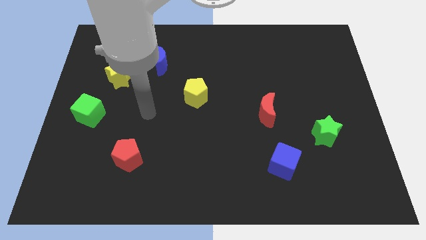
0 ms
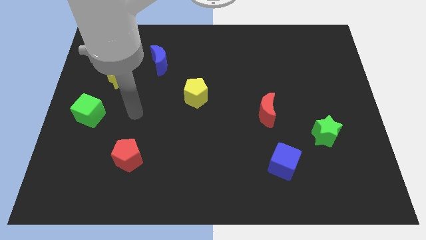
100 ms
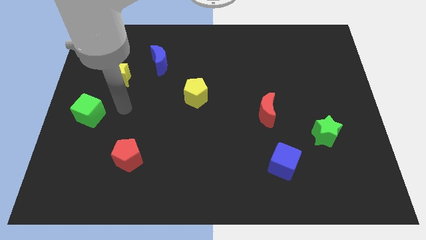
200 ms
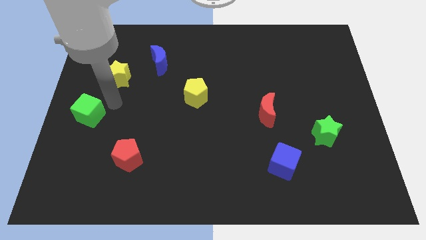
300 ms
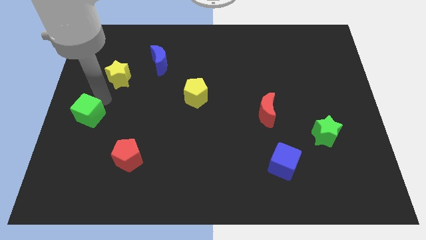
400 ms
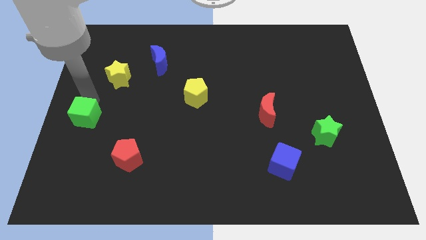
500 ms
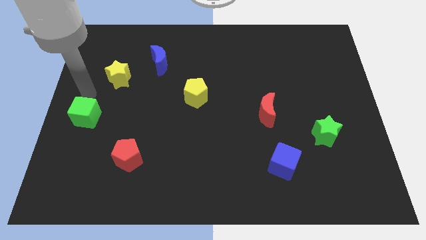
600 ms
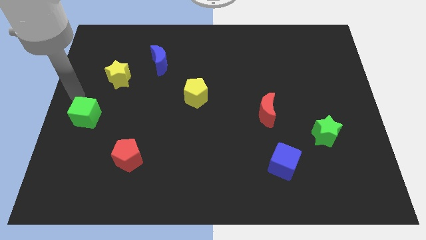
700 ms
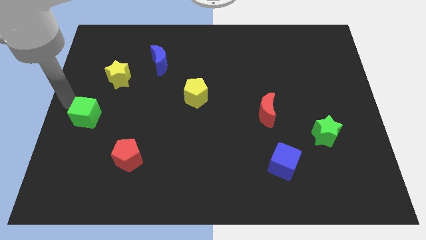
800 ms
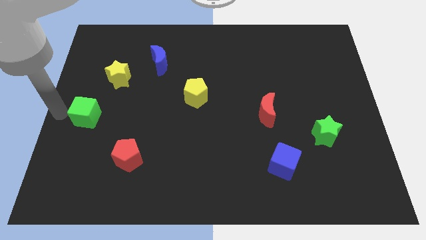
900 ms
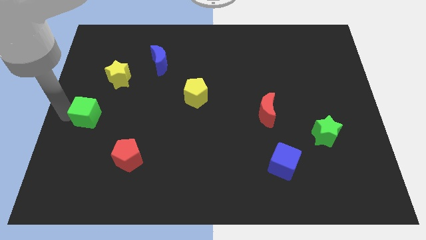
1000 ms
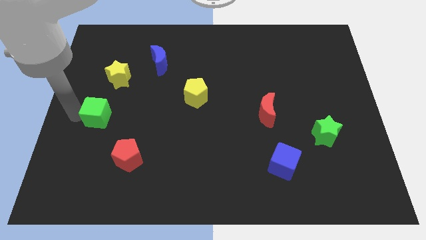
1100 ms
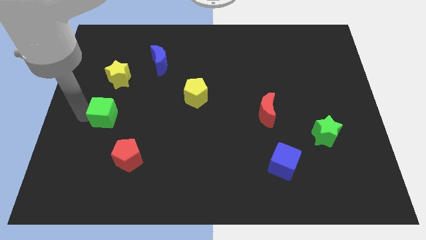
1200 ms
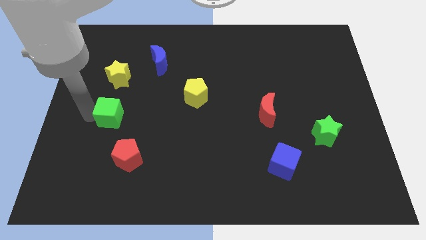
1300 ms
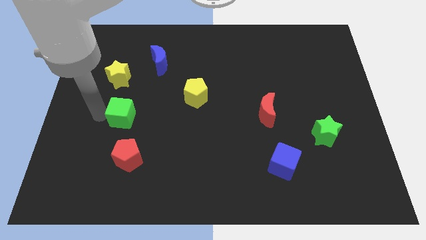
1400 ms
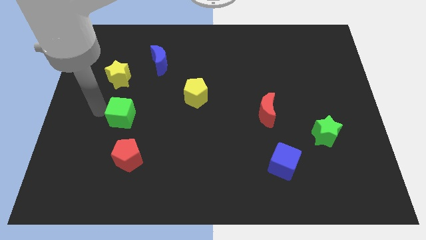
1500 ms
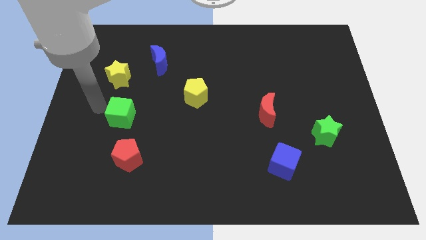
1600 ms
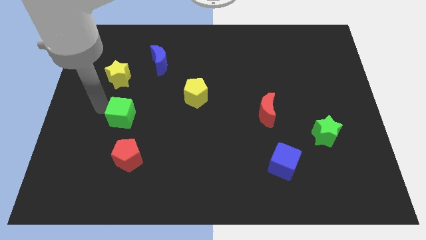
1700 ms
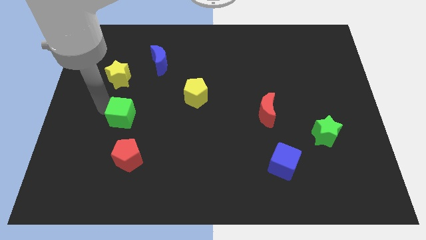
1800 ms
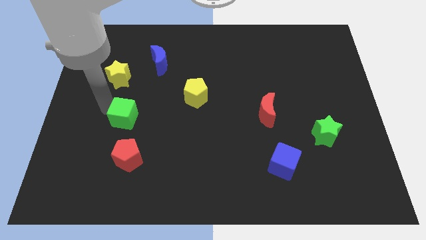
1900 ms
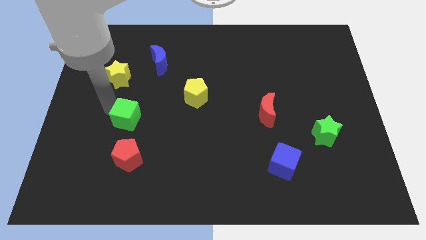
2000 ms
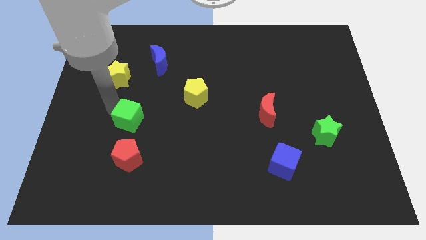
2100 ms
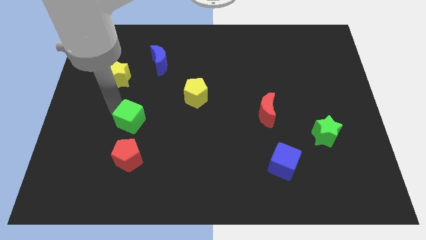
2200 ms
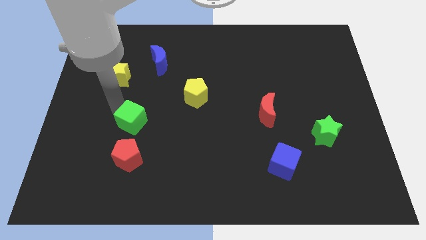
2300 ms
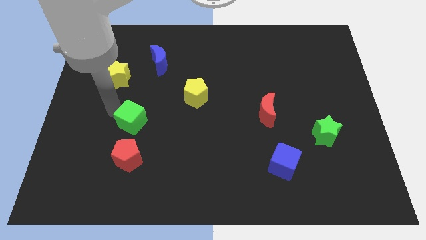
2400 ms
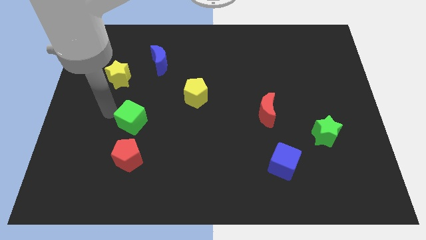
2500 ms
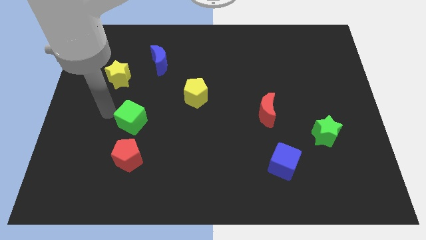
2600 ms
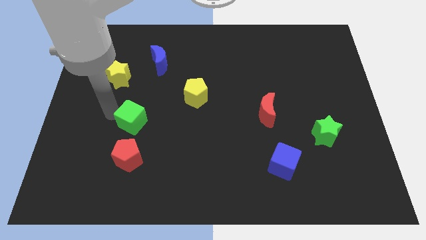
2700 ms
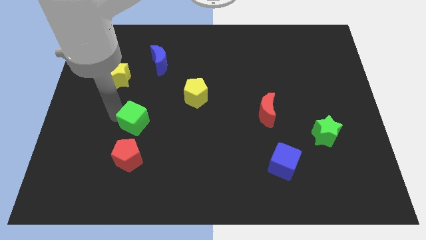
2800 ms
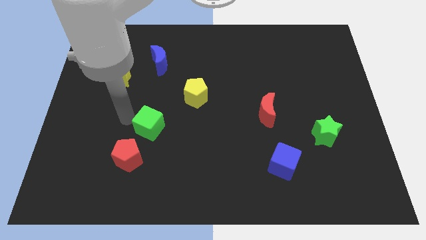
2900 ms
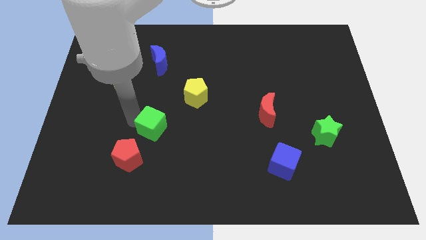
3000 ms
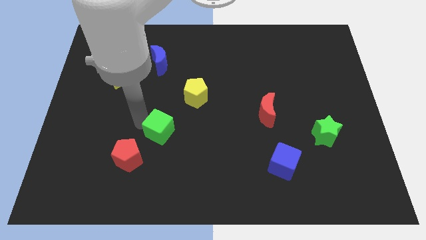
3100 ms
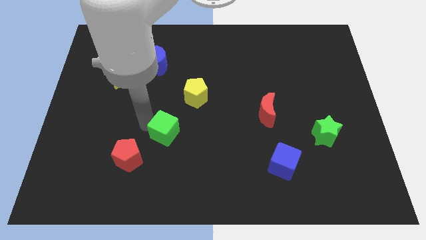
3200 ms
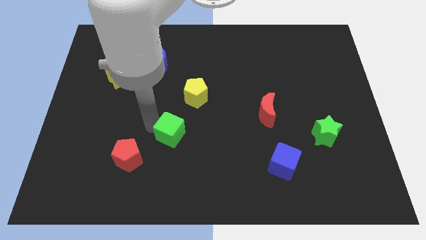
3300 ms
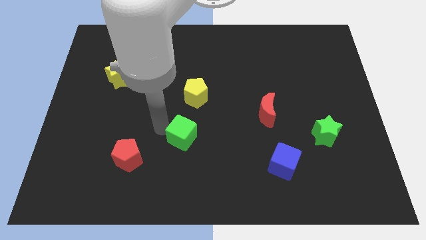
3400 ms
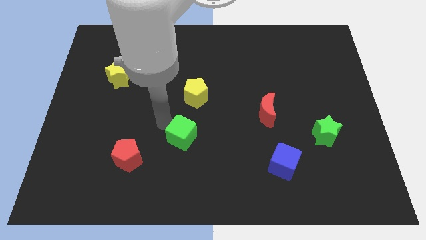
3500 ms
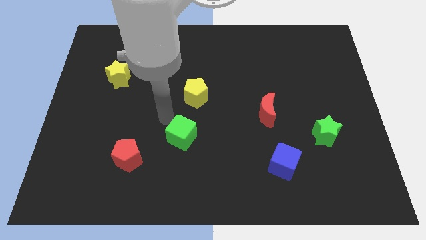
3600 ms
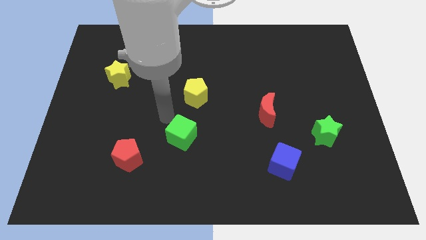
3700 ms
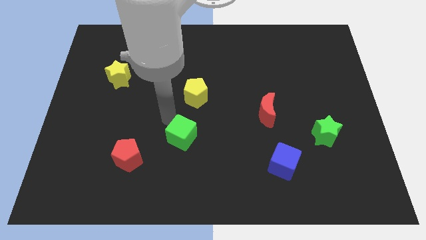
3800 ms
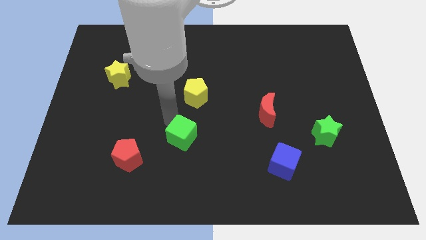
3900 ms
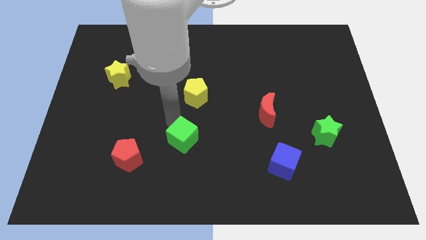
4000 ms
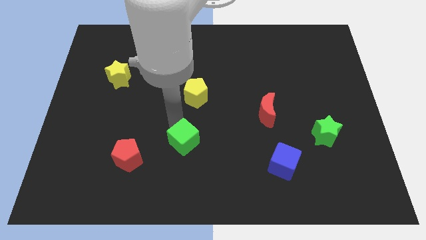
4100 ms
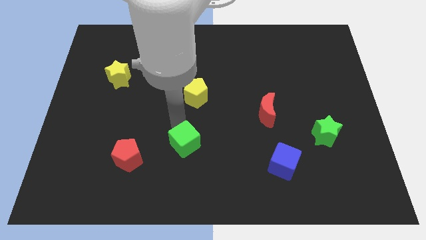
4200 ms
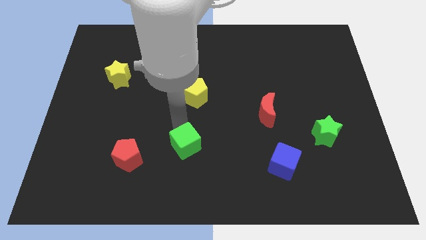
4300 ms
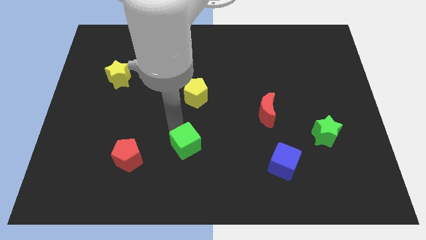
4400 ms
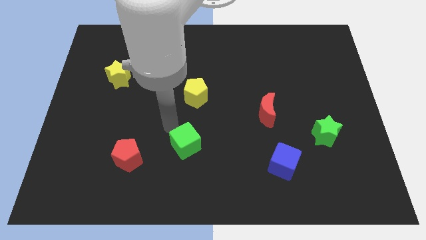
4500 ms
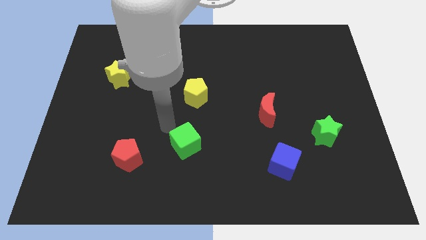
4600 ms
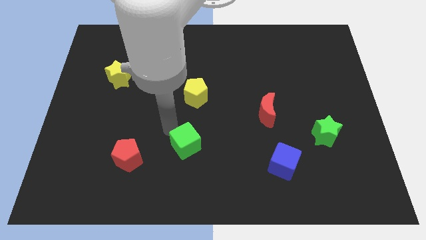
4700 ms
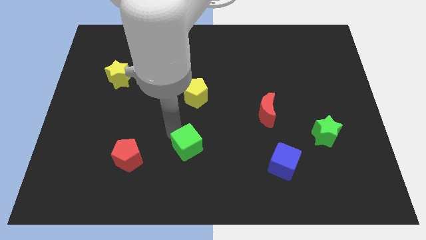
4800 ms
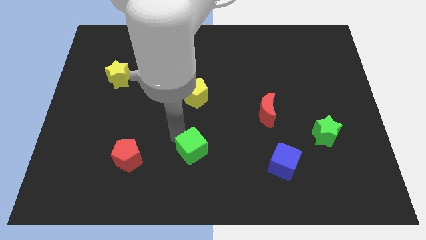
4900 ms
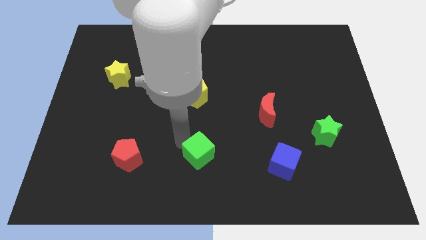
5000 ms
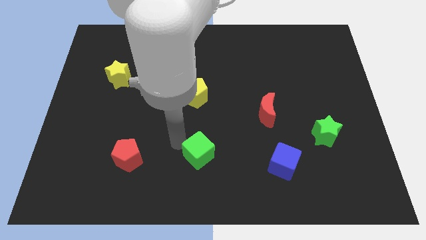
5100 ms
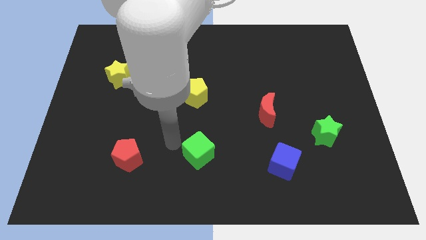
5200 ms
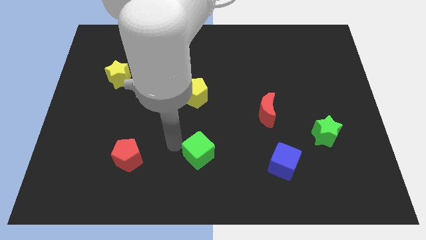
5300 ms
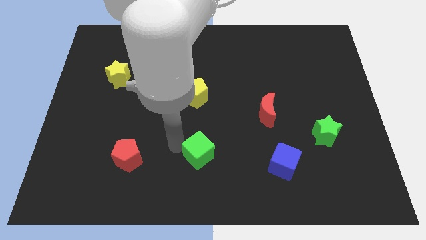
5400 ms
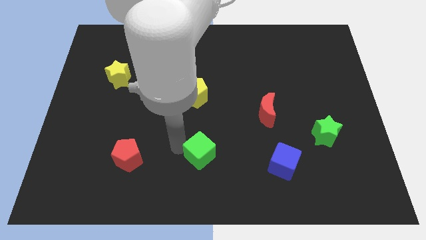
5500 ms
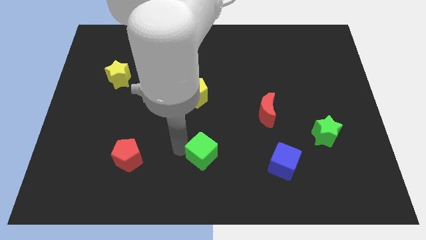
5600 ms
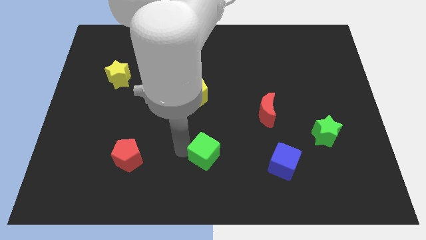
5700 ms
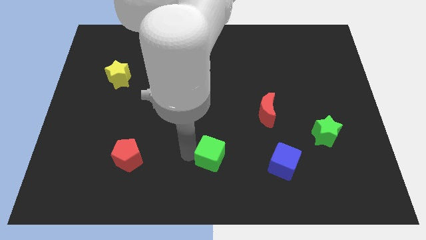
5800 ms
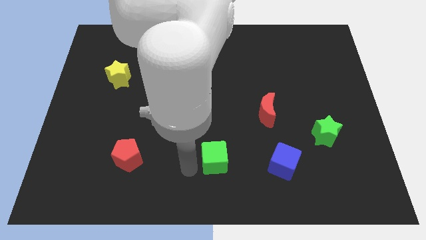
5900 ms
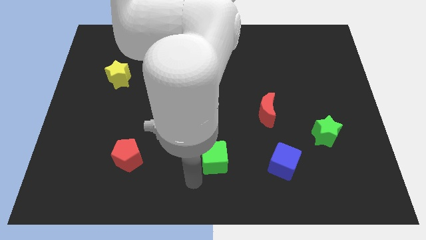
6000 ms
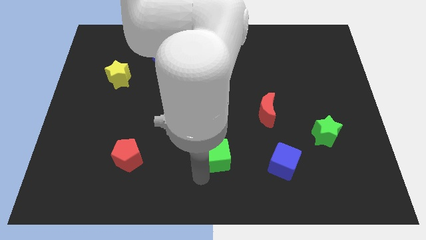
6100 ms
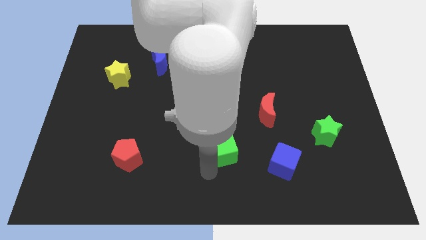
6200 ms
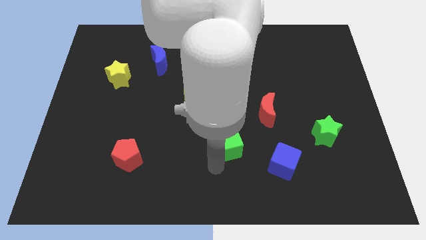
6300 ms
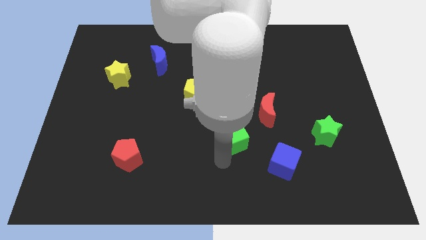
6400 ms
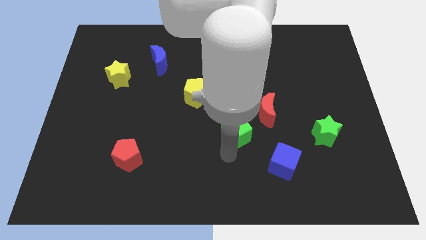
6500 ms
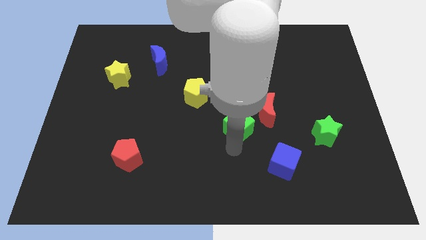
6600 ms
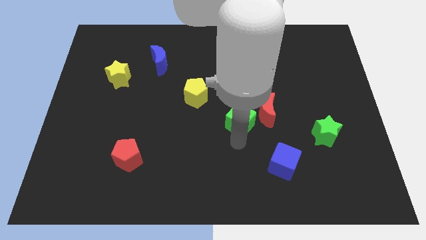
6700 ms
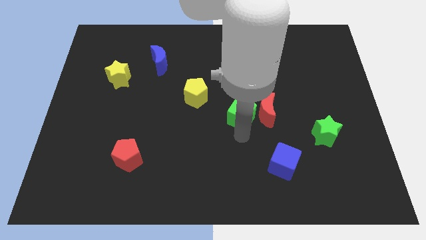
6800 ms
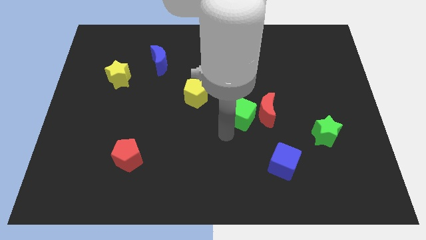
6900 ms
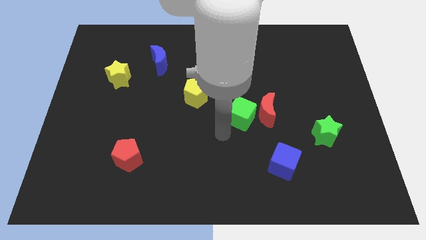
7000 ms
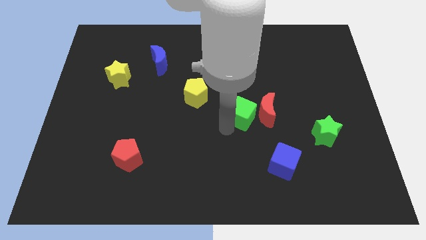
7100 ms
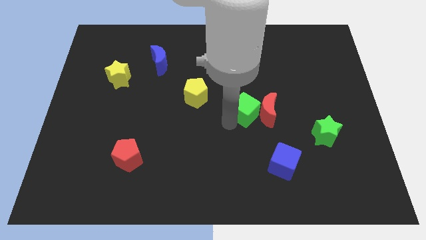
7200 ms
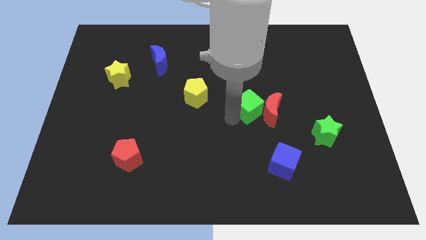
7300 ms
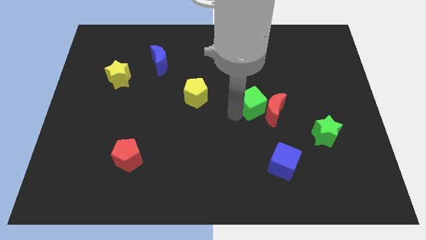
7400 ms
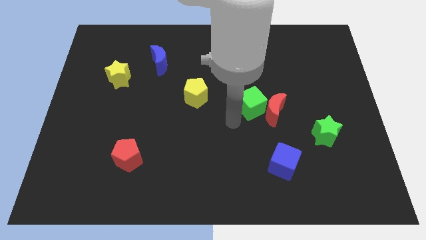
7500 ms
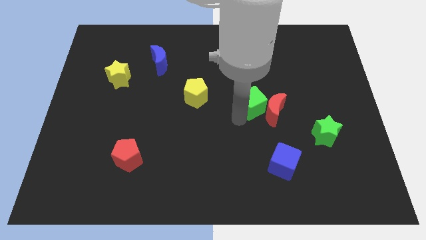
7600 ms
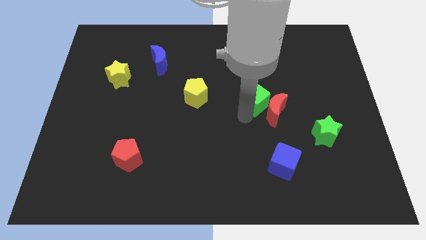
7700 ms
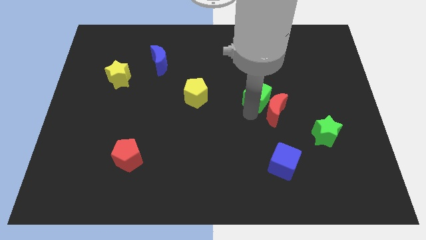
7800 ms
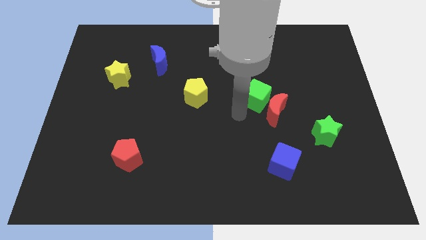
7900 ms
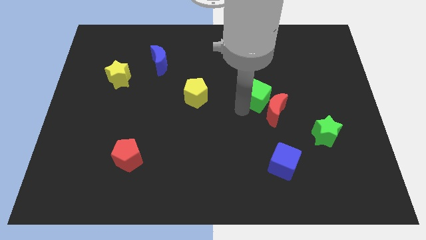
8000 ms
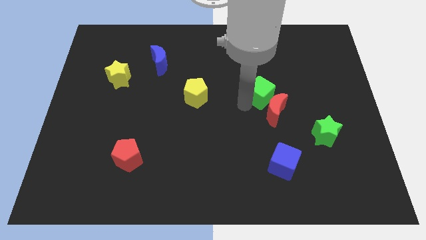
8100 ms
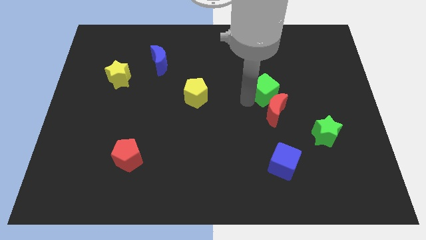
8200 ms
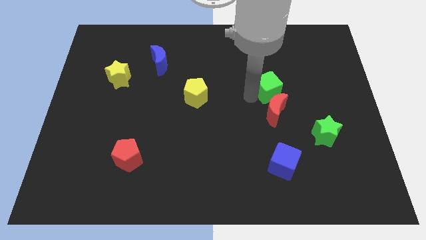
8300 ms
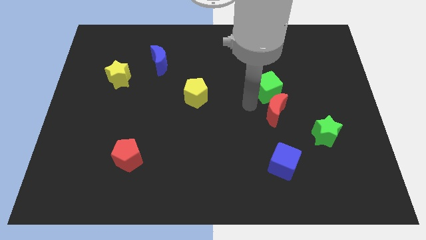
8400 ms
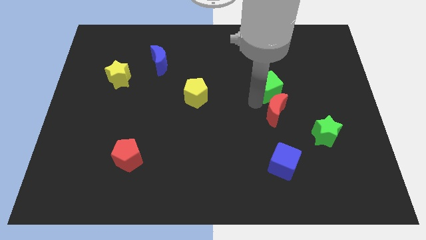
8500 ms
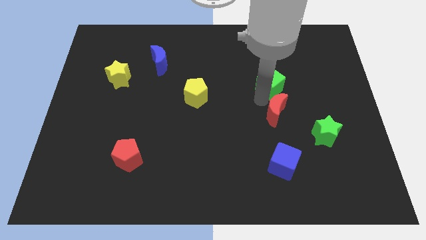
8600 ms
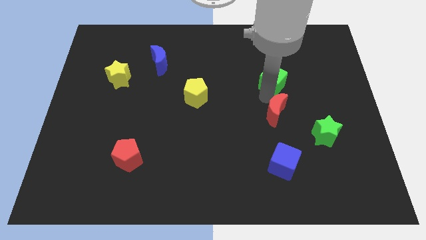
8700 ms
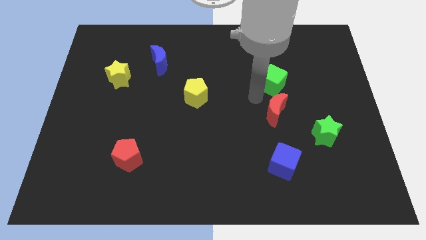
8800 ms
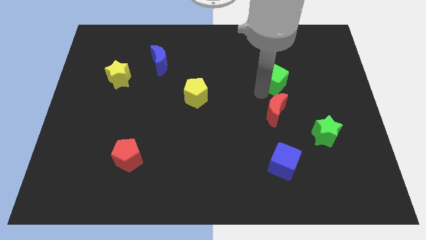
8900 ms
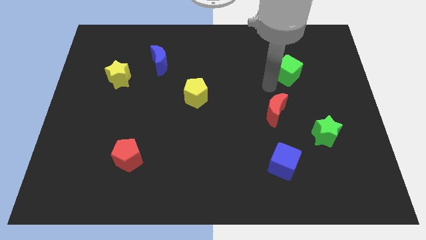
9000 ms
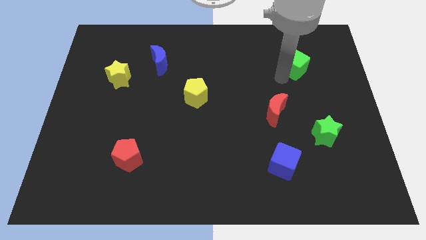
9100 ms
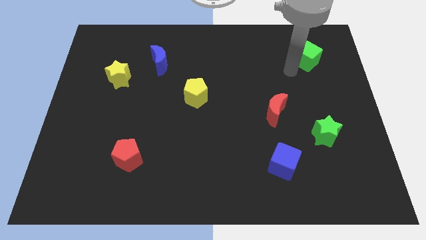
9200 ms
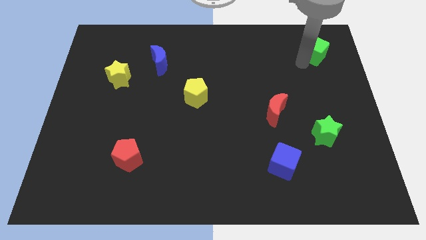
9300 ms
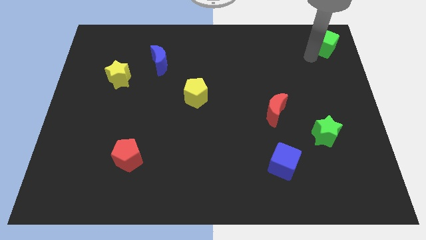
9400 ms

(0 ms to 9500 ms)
push the green cube to the top right
